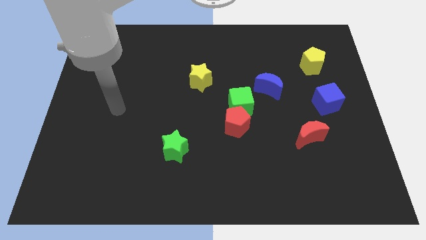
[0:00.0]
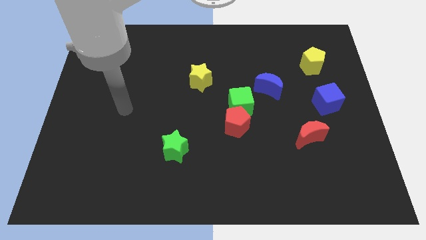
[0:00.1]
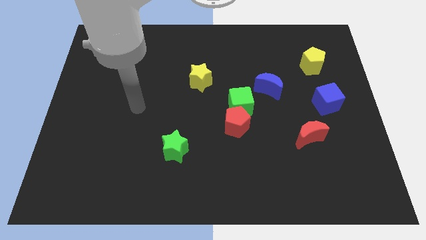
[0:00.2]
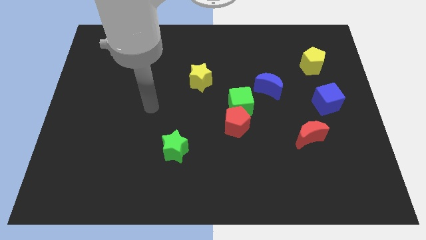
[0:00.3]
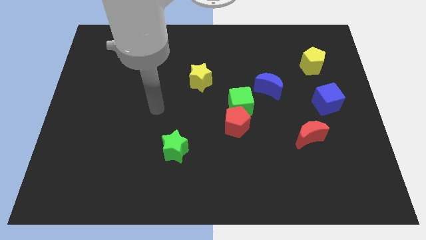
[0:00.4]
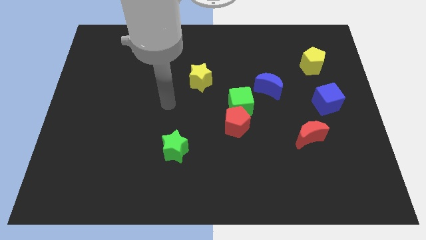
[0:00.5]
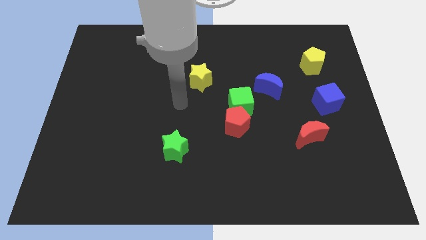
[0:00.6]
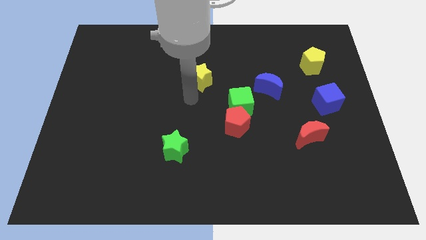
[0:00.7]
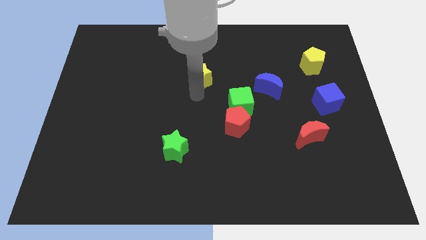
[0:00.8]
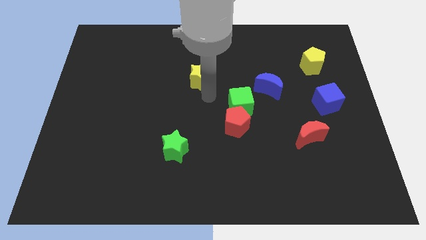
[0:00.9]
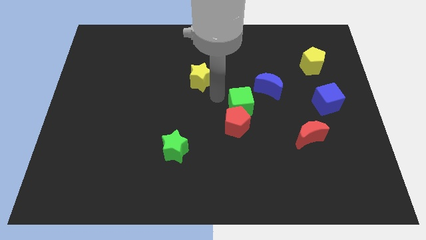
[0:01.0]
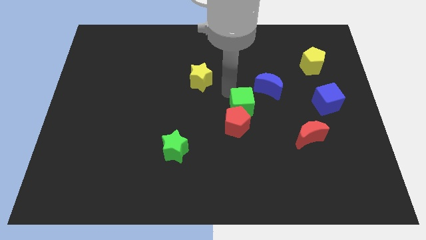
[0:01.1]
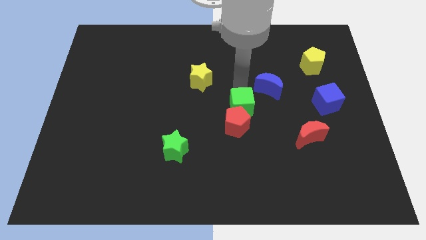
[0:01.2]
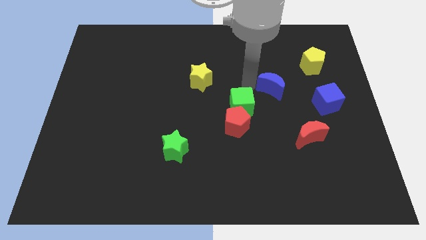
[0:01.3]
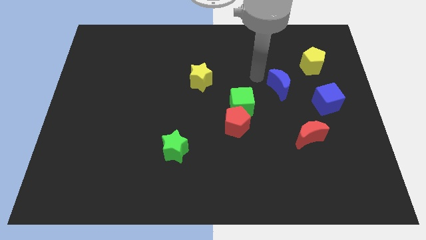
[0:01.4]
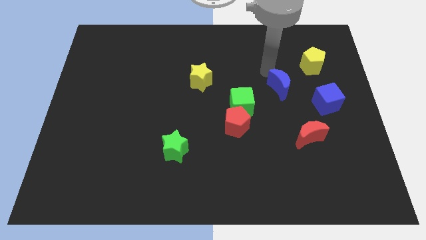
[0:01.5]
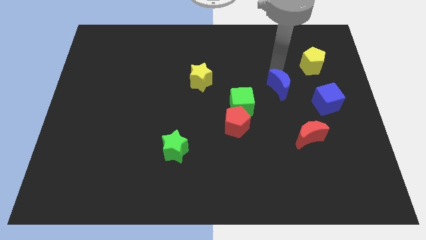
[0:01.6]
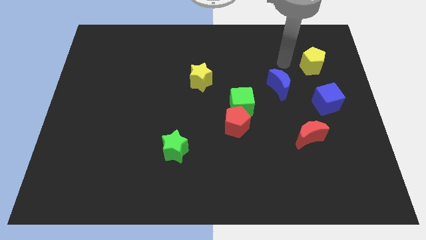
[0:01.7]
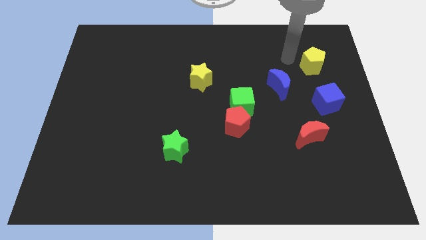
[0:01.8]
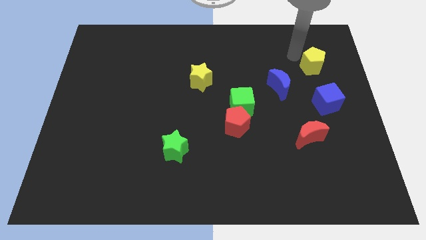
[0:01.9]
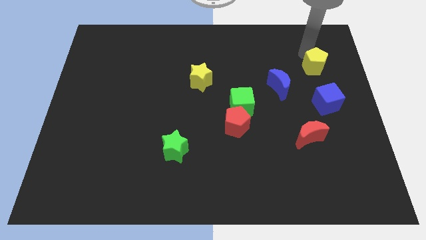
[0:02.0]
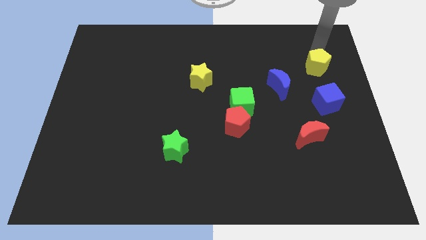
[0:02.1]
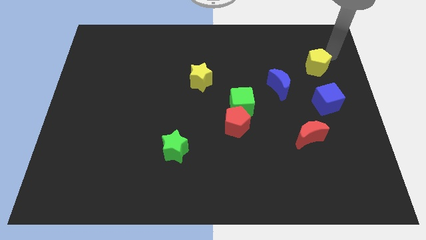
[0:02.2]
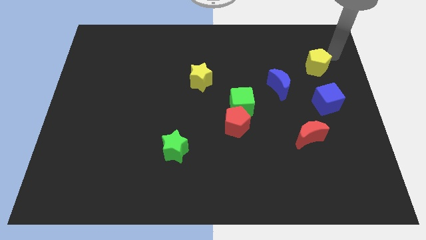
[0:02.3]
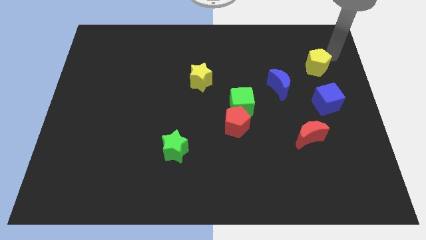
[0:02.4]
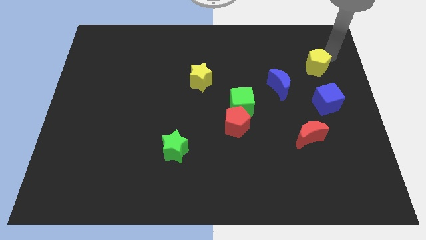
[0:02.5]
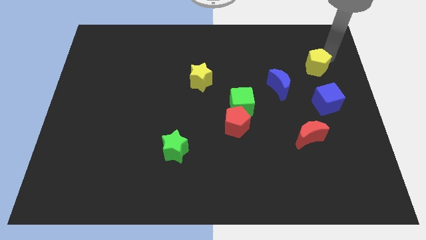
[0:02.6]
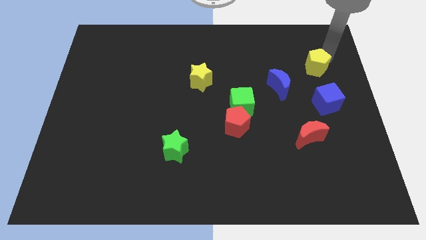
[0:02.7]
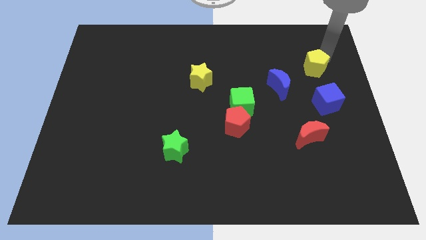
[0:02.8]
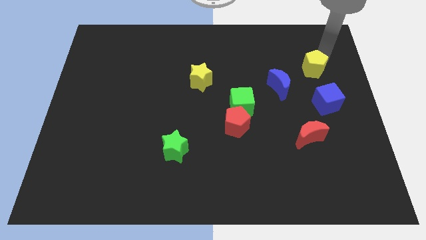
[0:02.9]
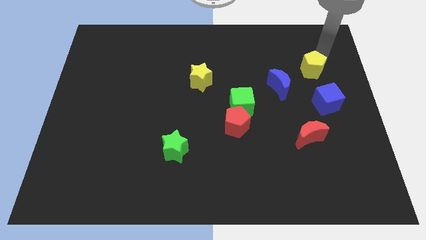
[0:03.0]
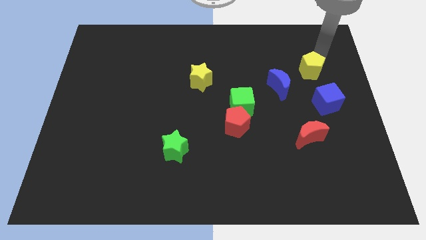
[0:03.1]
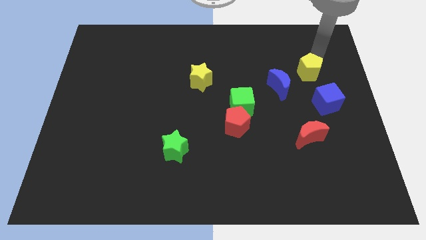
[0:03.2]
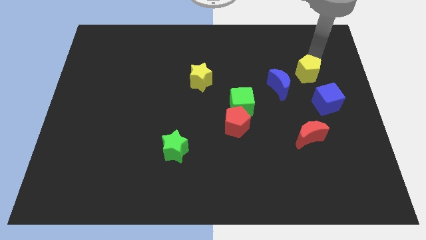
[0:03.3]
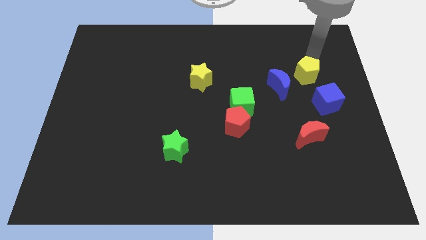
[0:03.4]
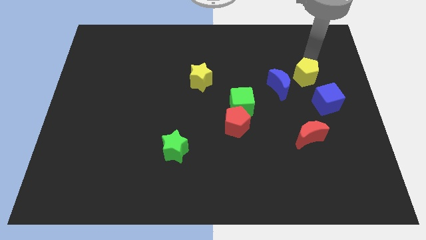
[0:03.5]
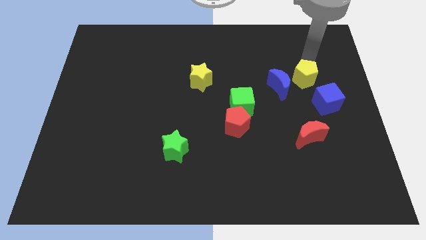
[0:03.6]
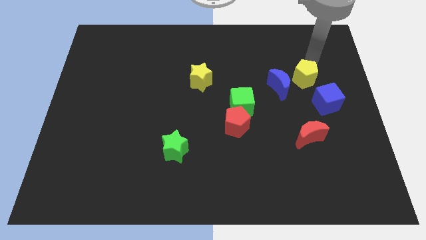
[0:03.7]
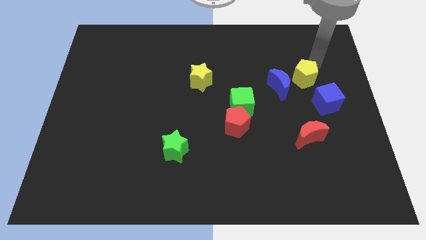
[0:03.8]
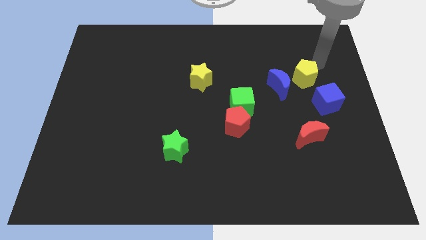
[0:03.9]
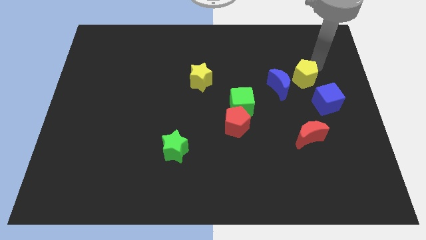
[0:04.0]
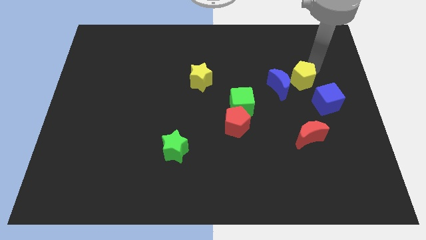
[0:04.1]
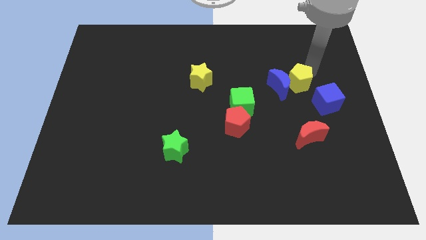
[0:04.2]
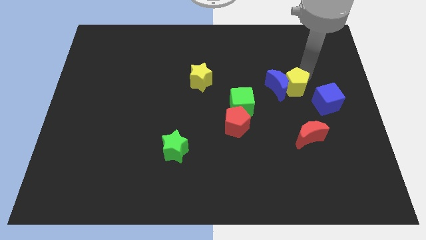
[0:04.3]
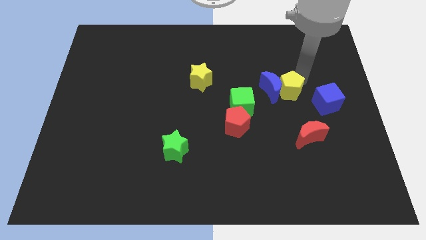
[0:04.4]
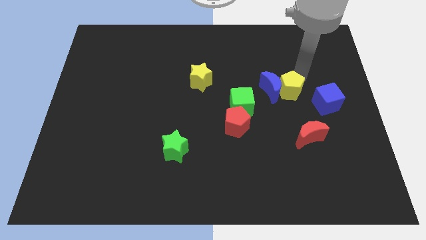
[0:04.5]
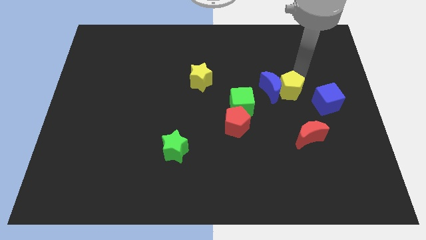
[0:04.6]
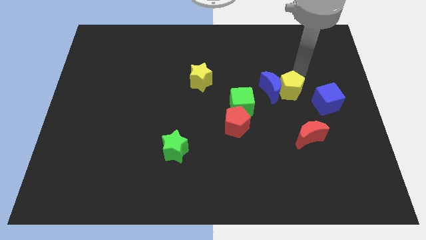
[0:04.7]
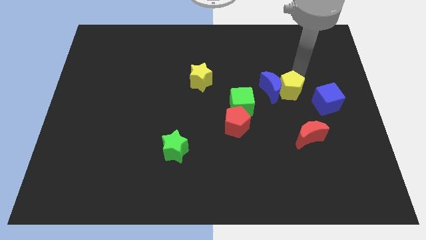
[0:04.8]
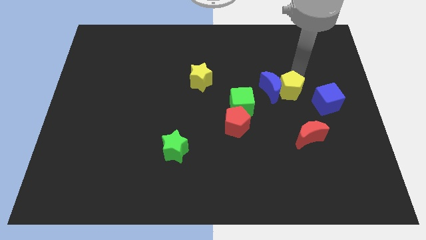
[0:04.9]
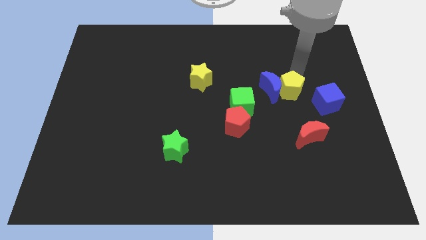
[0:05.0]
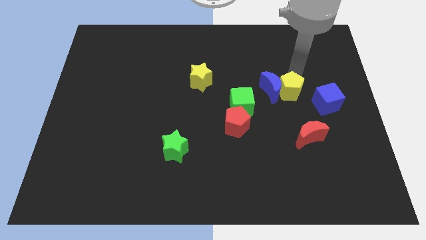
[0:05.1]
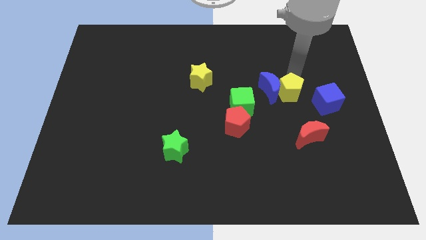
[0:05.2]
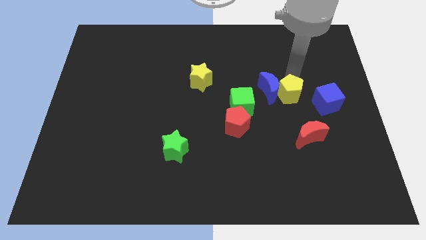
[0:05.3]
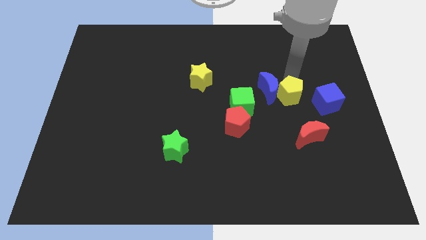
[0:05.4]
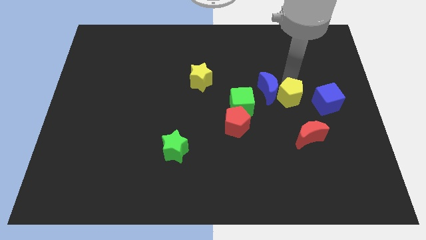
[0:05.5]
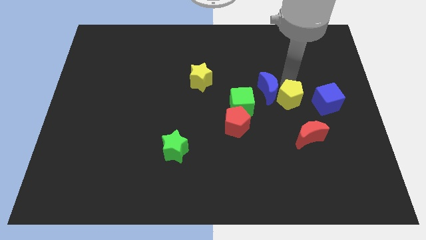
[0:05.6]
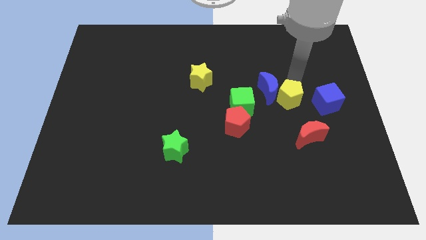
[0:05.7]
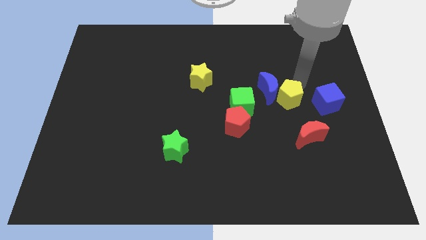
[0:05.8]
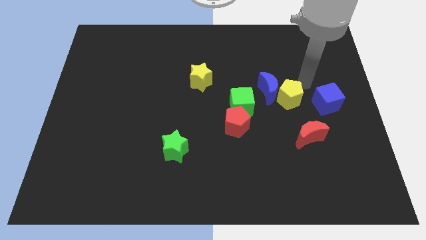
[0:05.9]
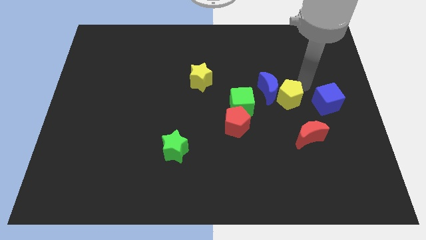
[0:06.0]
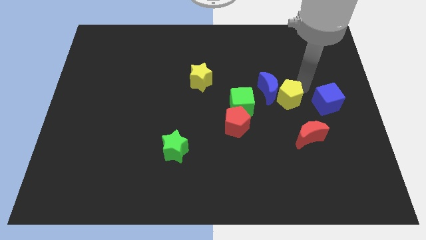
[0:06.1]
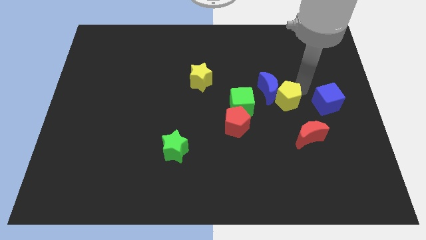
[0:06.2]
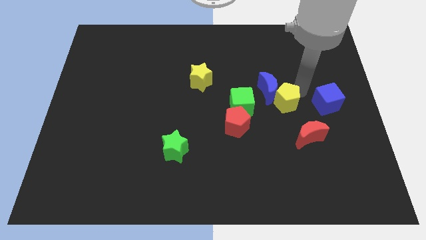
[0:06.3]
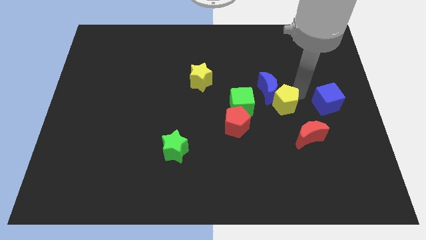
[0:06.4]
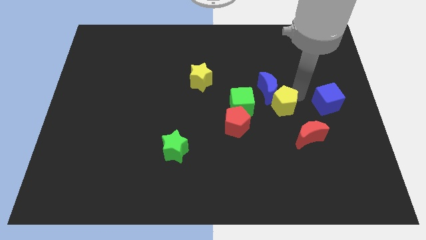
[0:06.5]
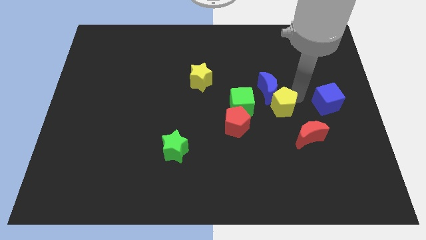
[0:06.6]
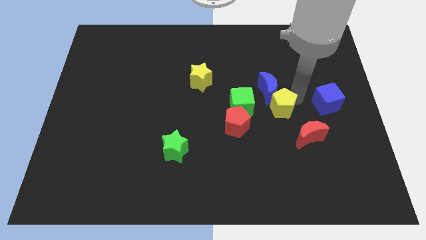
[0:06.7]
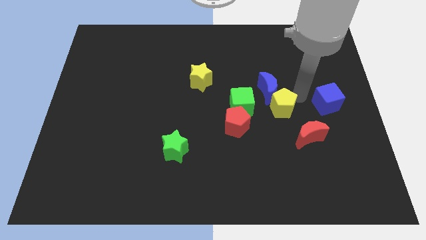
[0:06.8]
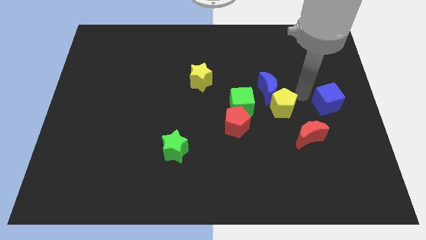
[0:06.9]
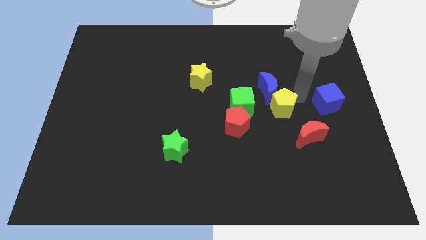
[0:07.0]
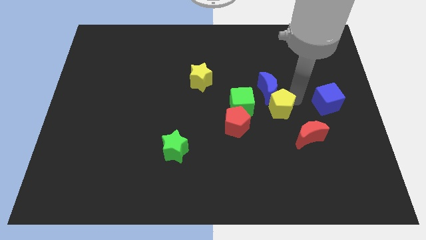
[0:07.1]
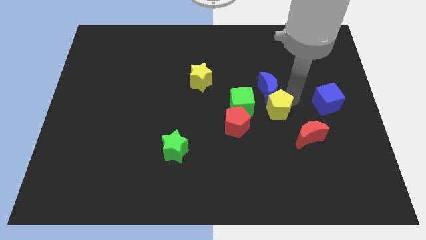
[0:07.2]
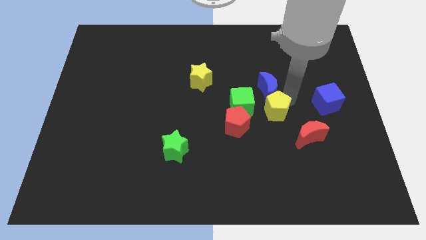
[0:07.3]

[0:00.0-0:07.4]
move the yellow pentagon to the bottom right of the green cube

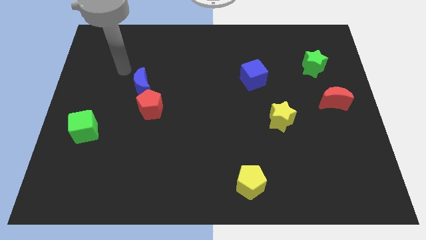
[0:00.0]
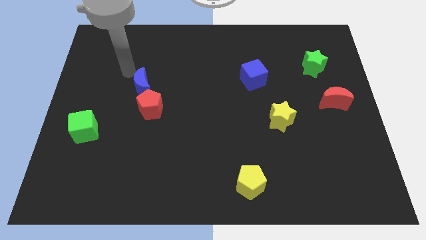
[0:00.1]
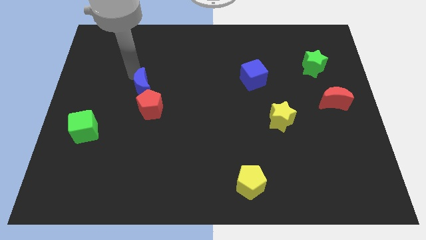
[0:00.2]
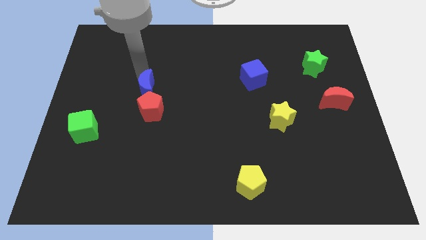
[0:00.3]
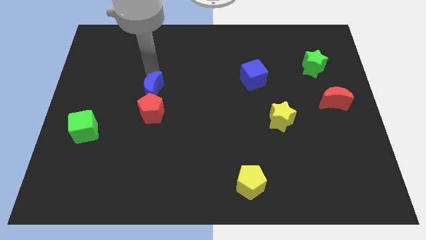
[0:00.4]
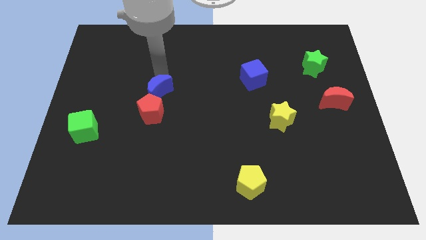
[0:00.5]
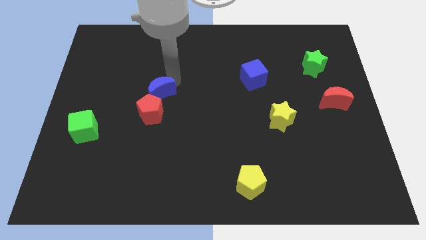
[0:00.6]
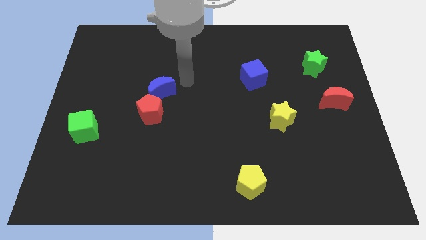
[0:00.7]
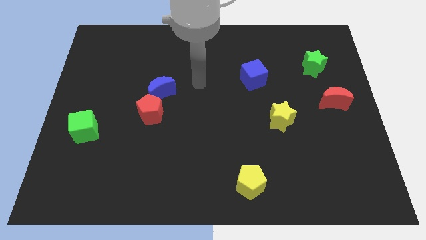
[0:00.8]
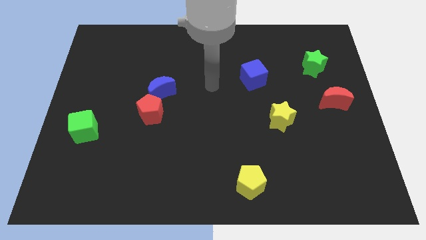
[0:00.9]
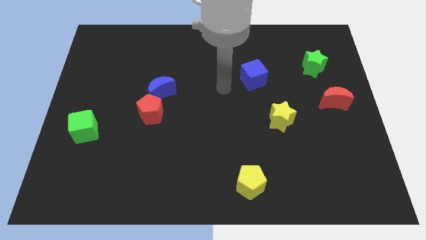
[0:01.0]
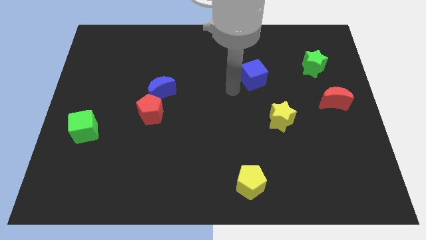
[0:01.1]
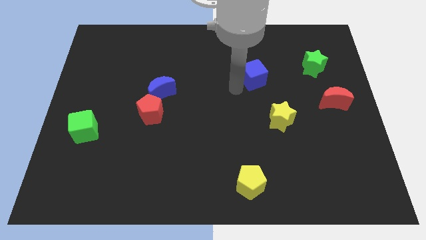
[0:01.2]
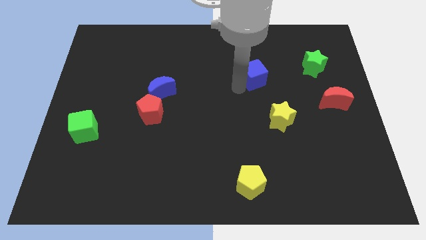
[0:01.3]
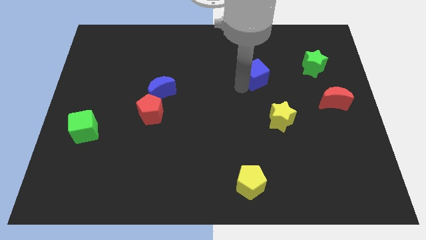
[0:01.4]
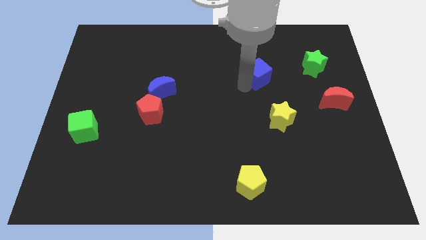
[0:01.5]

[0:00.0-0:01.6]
slide the blue cube left of the green star
